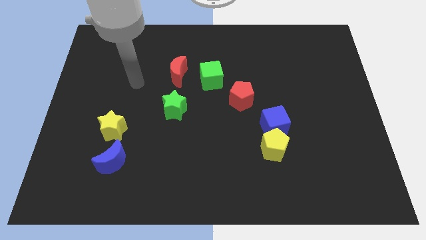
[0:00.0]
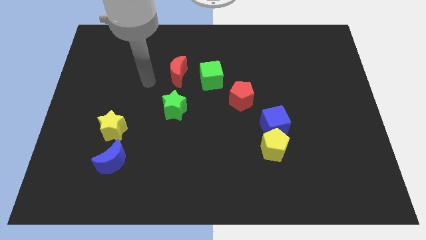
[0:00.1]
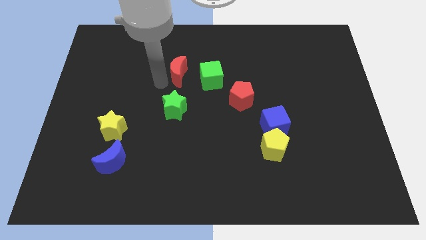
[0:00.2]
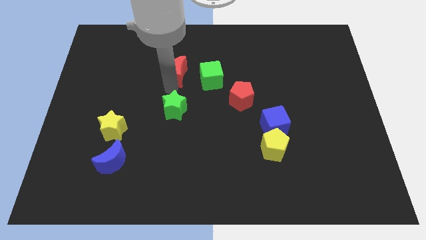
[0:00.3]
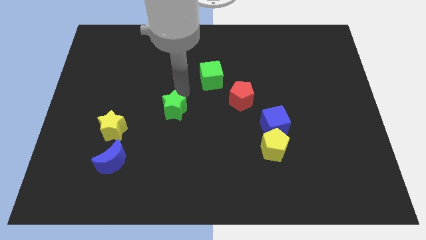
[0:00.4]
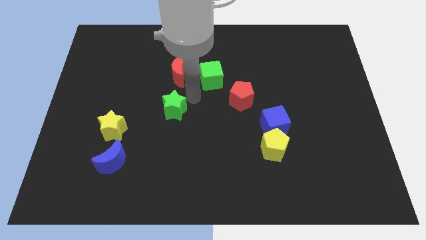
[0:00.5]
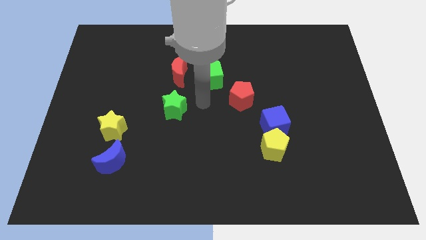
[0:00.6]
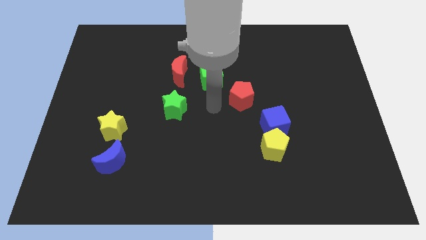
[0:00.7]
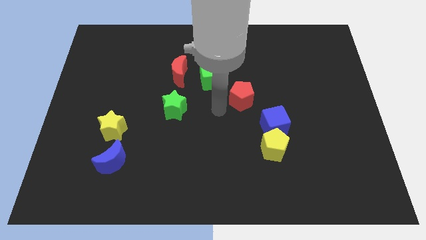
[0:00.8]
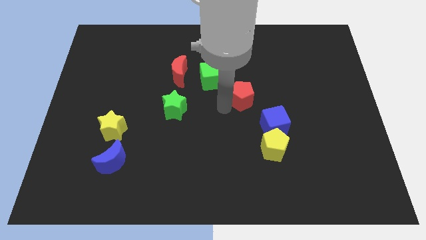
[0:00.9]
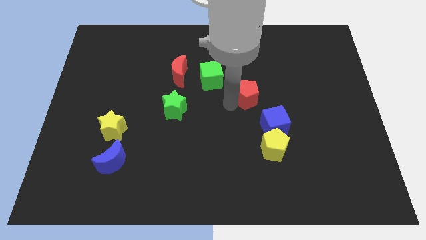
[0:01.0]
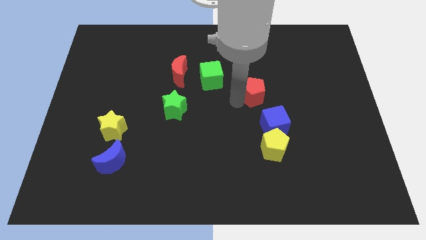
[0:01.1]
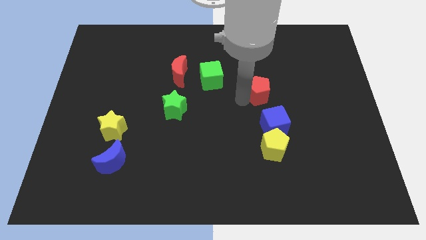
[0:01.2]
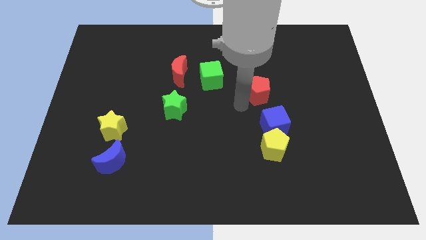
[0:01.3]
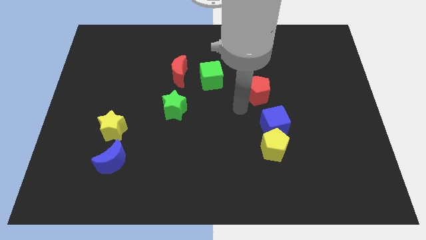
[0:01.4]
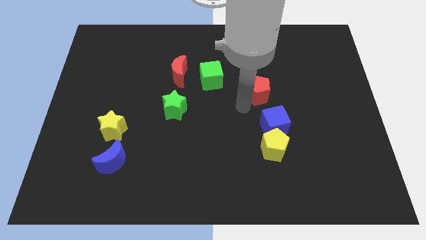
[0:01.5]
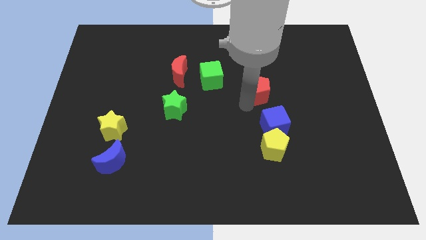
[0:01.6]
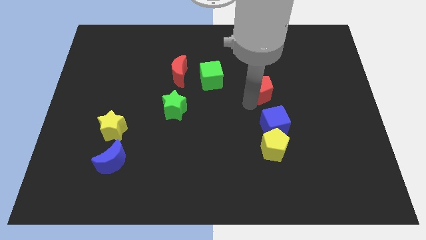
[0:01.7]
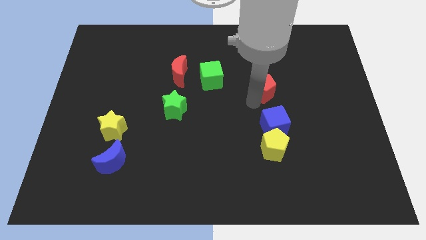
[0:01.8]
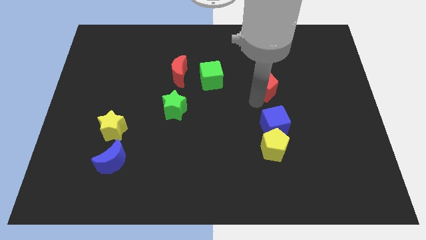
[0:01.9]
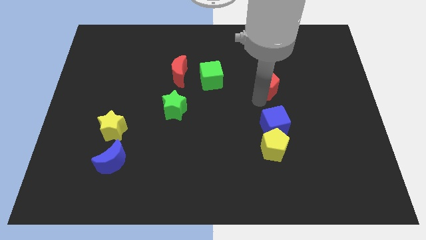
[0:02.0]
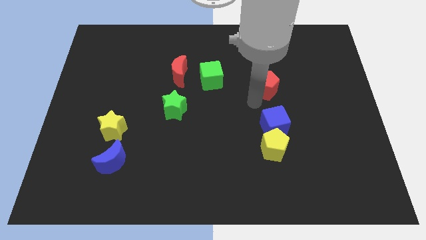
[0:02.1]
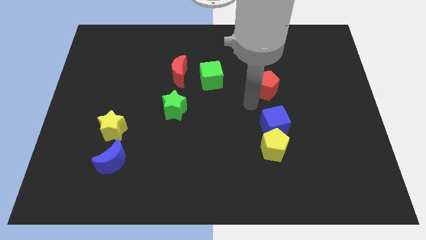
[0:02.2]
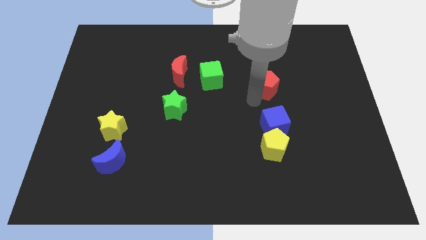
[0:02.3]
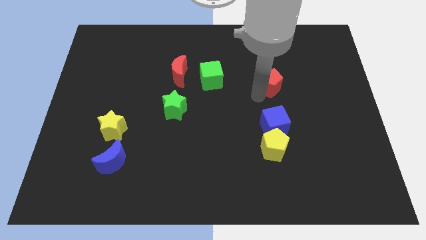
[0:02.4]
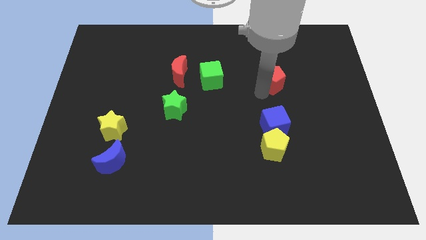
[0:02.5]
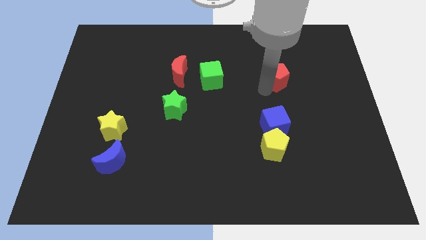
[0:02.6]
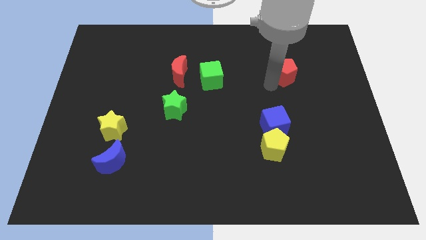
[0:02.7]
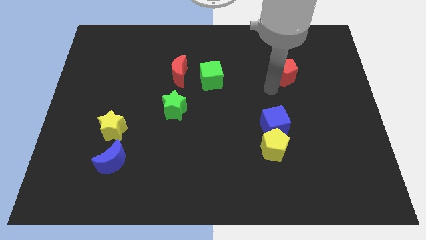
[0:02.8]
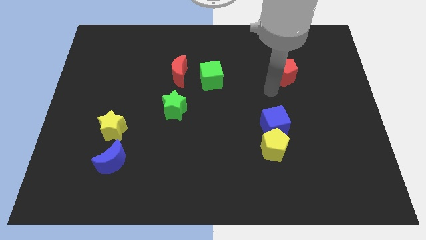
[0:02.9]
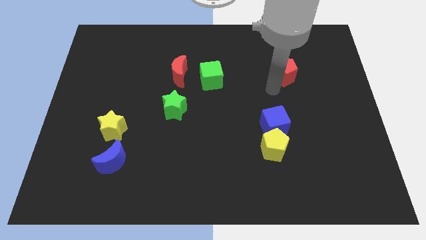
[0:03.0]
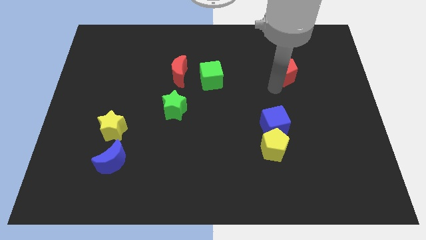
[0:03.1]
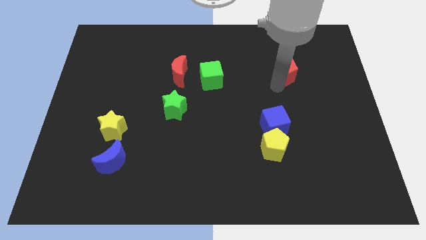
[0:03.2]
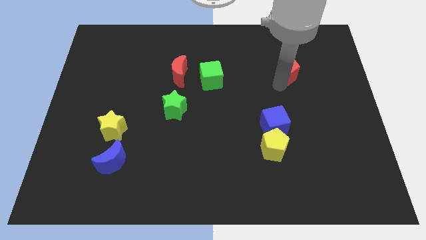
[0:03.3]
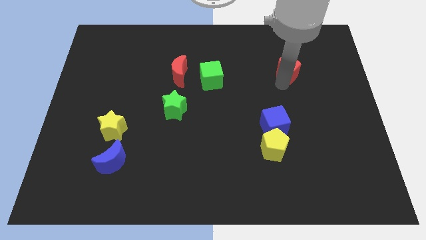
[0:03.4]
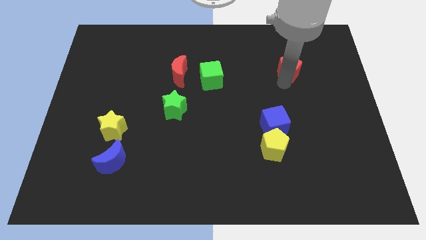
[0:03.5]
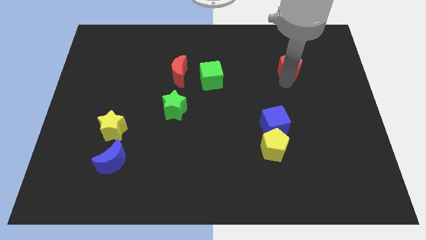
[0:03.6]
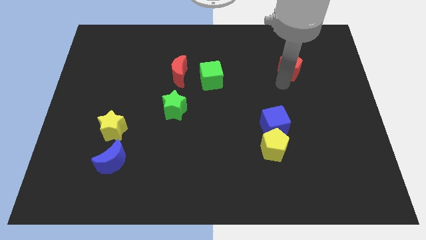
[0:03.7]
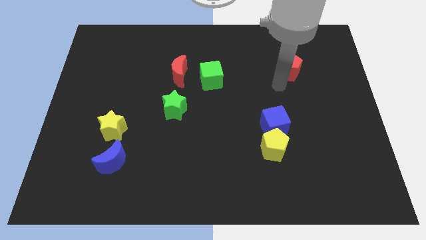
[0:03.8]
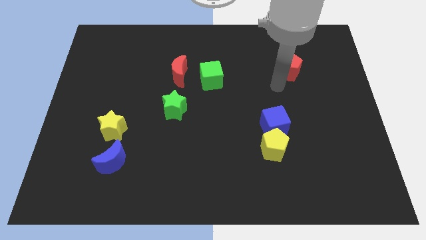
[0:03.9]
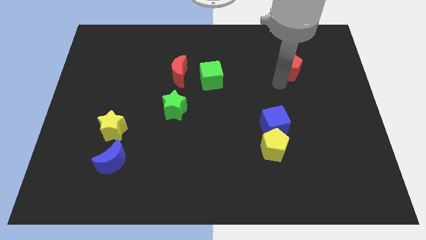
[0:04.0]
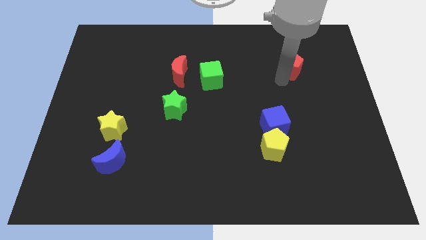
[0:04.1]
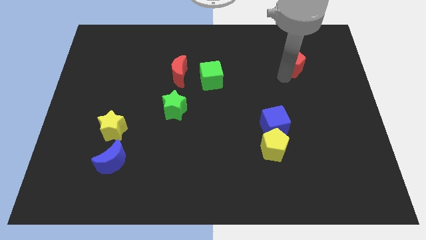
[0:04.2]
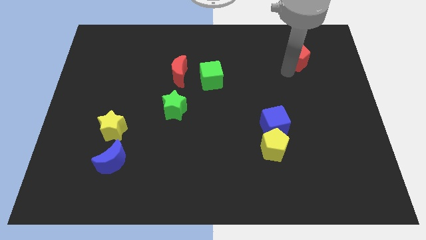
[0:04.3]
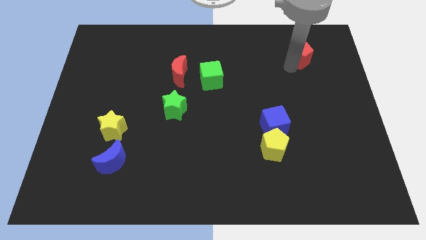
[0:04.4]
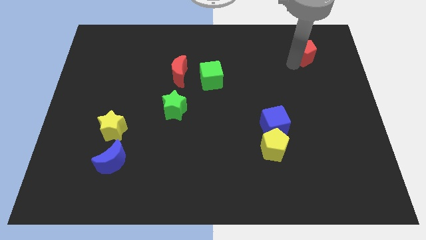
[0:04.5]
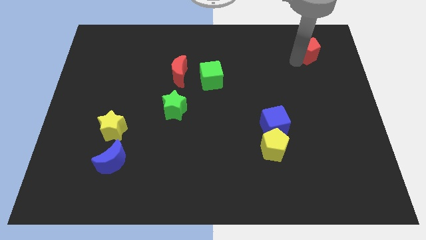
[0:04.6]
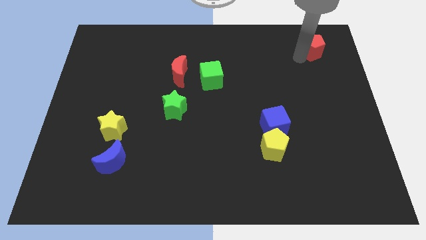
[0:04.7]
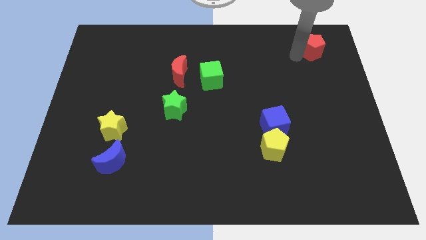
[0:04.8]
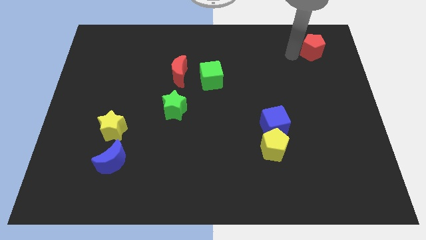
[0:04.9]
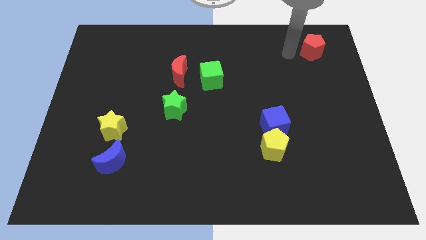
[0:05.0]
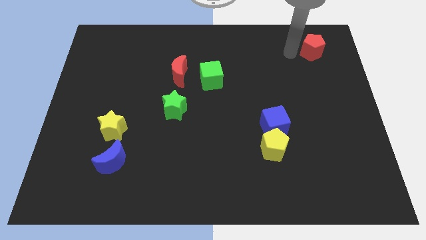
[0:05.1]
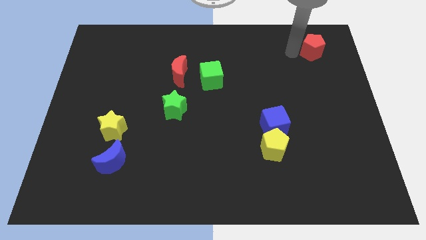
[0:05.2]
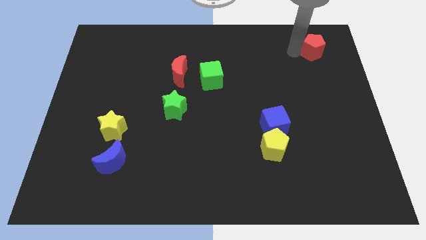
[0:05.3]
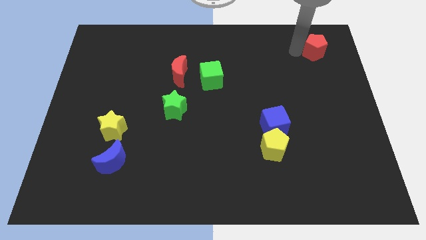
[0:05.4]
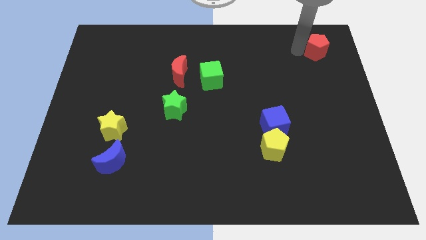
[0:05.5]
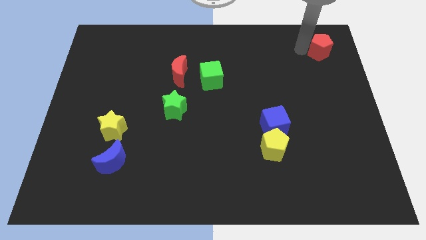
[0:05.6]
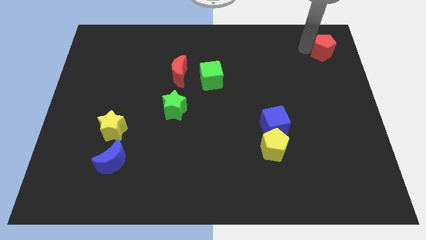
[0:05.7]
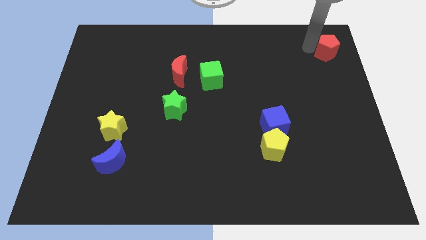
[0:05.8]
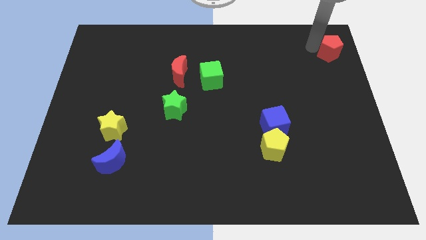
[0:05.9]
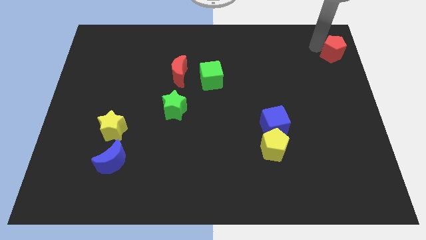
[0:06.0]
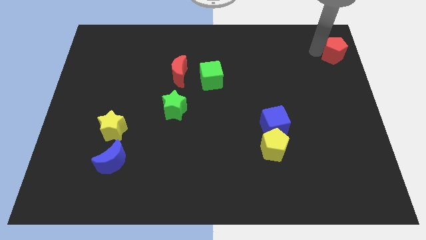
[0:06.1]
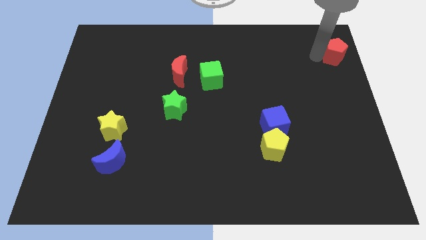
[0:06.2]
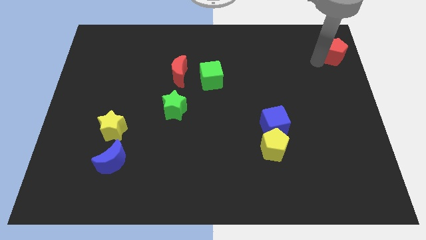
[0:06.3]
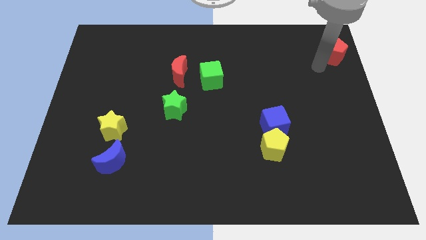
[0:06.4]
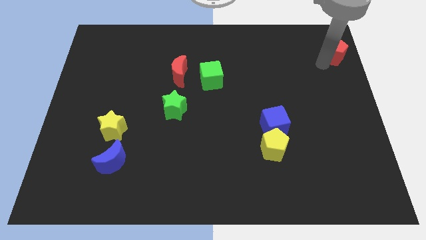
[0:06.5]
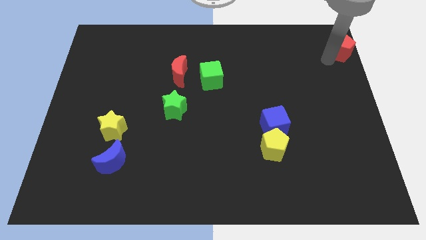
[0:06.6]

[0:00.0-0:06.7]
push the red pentagon to the top right of the board
